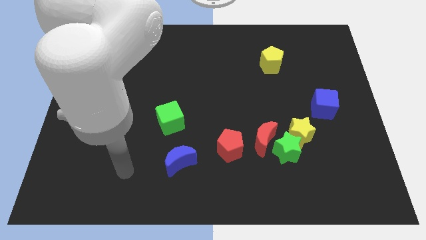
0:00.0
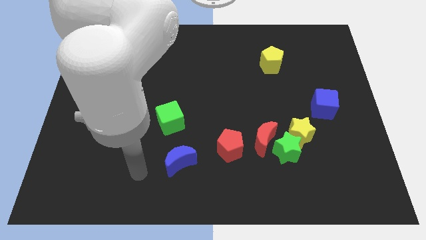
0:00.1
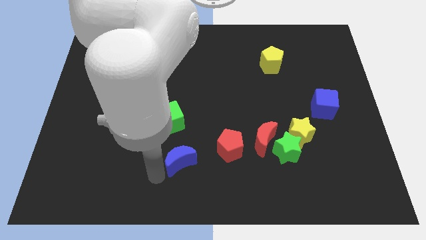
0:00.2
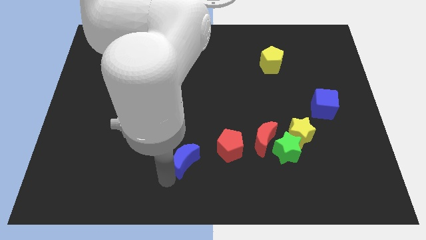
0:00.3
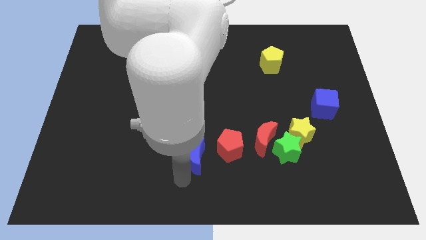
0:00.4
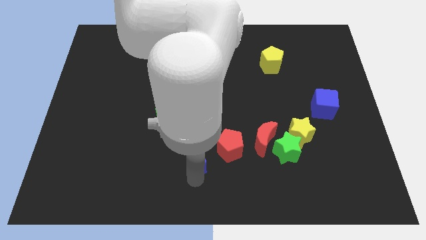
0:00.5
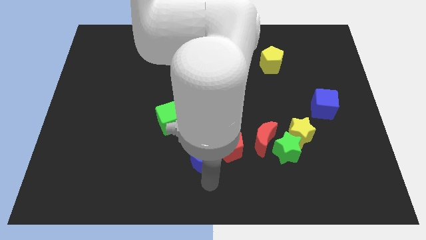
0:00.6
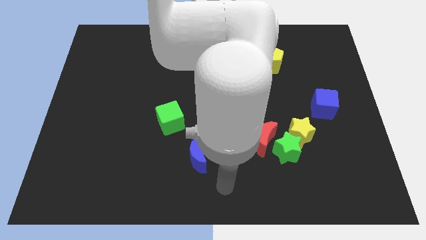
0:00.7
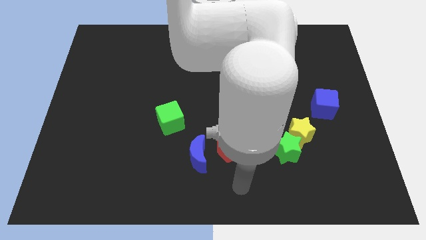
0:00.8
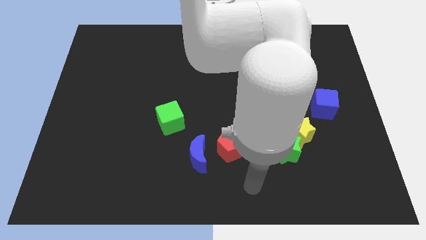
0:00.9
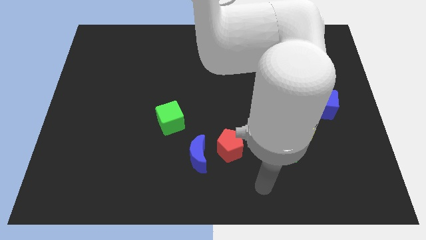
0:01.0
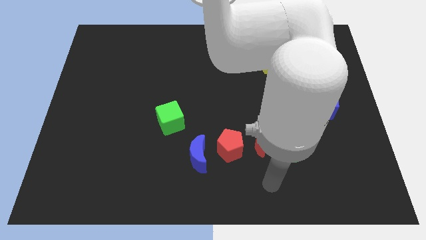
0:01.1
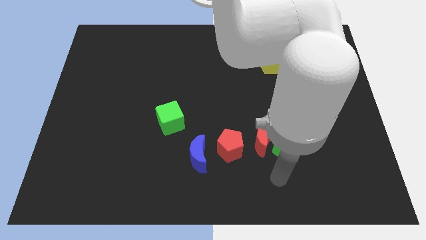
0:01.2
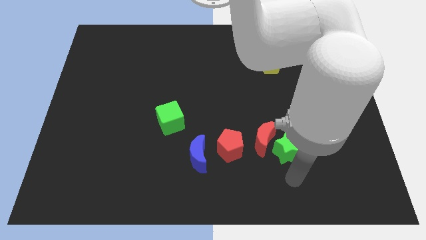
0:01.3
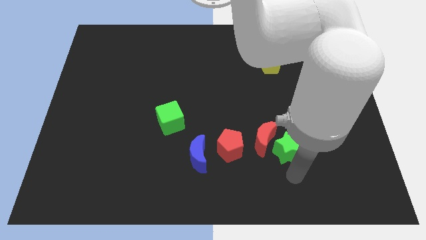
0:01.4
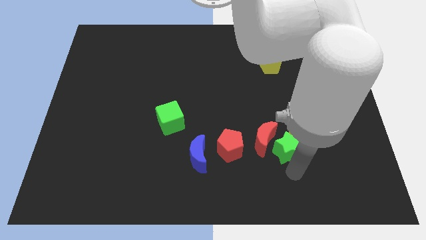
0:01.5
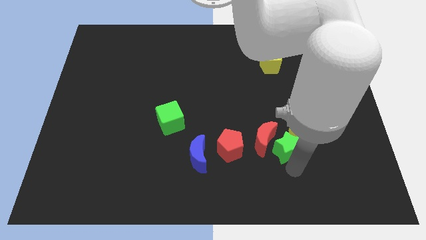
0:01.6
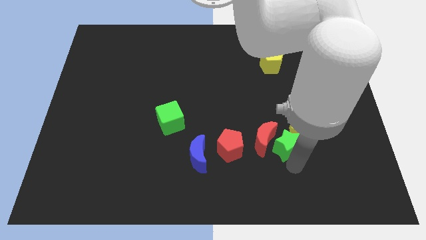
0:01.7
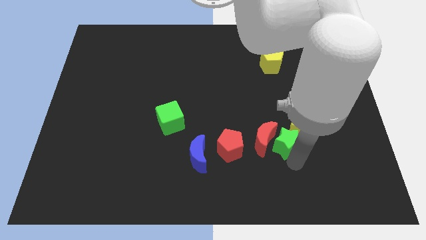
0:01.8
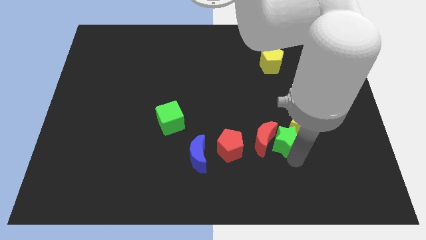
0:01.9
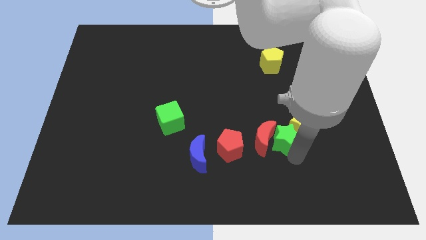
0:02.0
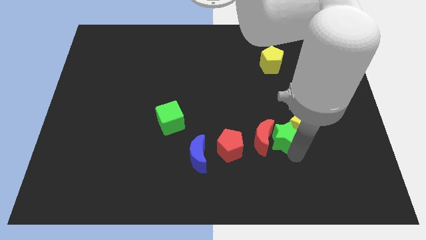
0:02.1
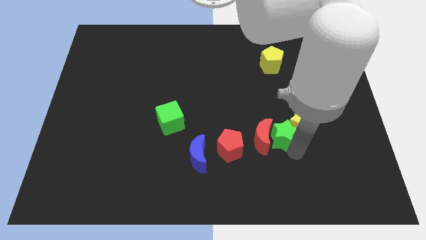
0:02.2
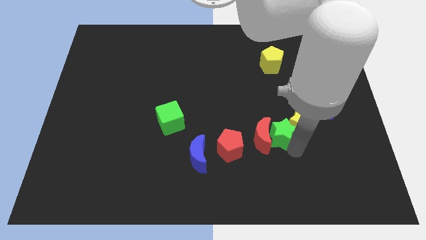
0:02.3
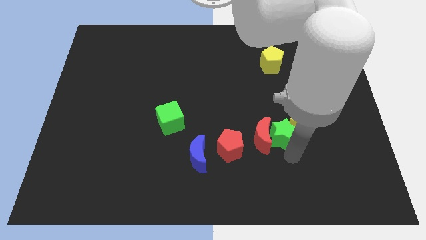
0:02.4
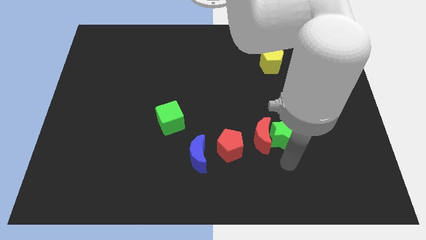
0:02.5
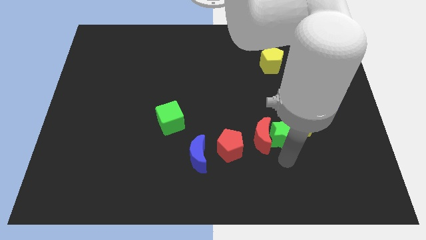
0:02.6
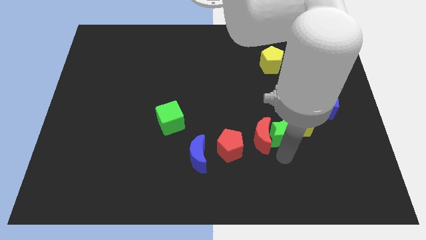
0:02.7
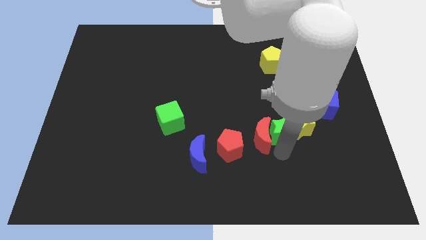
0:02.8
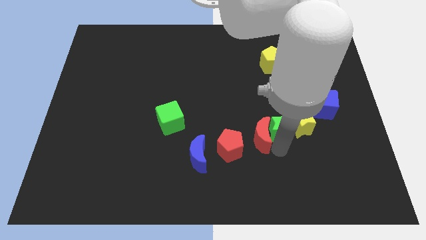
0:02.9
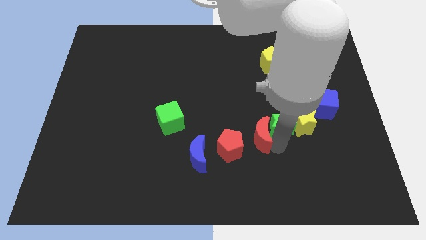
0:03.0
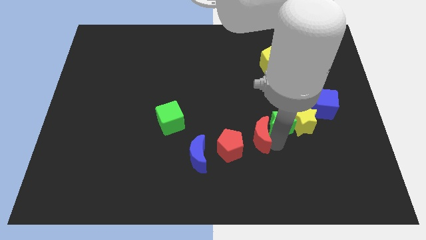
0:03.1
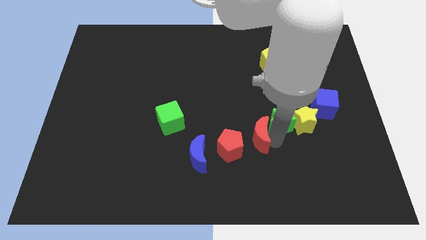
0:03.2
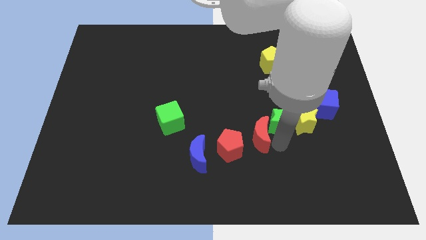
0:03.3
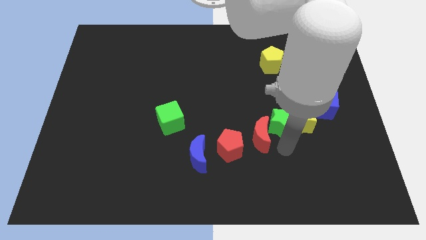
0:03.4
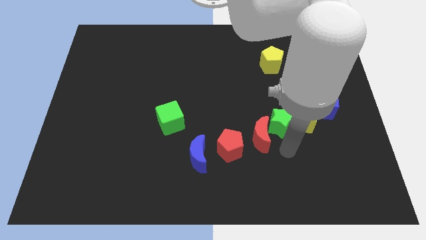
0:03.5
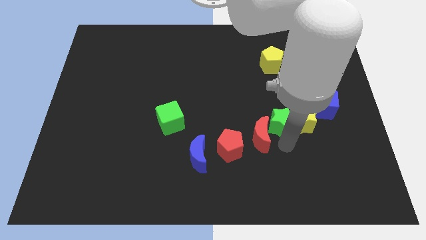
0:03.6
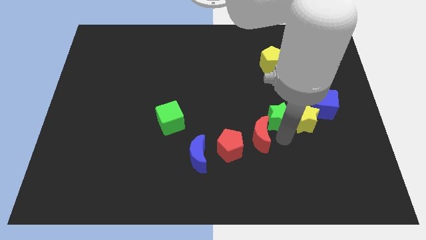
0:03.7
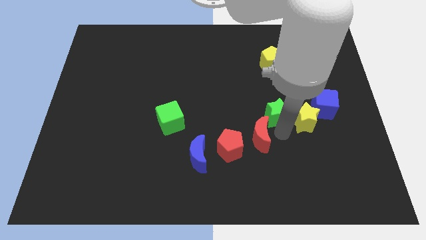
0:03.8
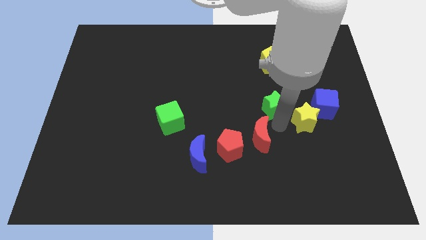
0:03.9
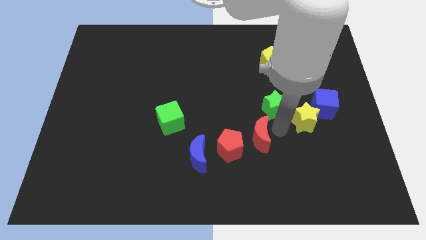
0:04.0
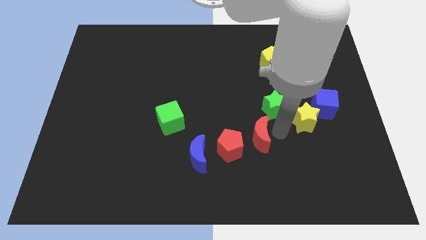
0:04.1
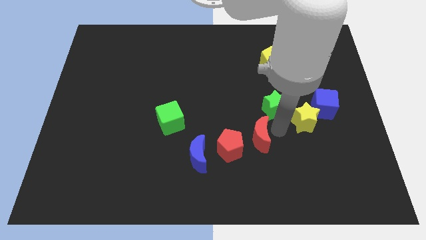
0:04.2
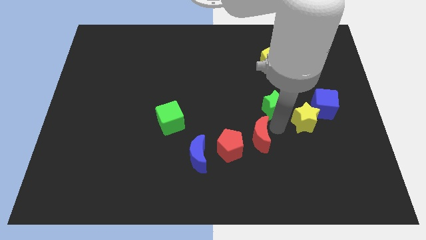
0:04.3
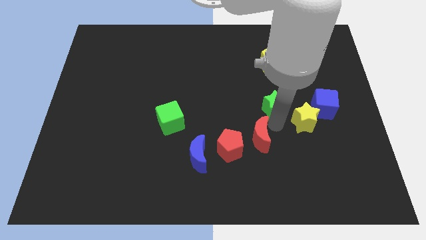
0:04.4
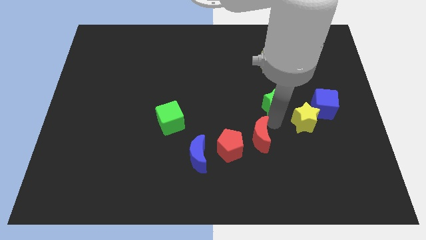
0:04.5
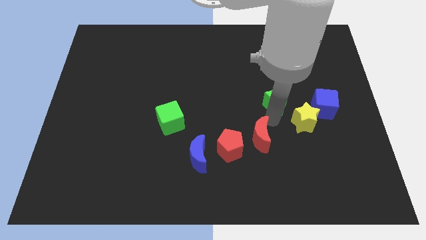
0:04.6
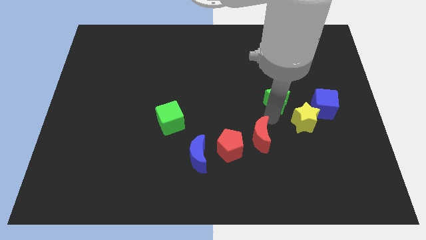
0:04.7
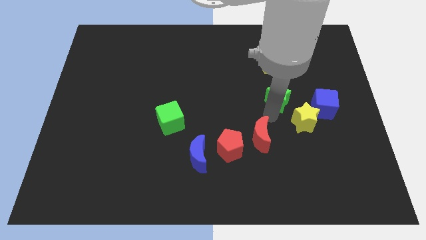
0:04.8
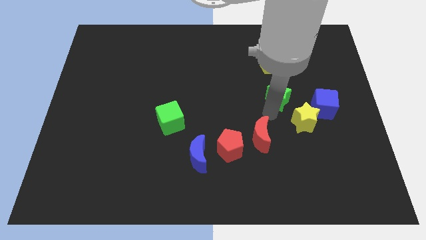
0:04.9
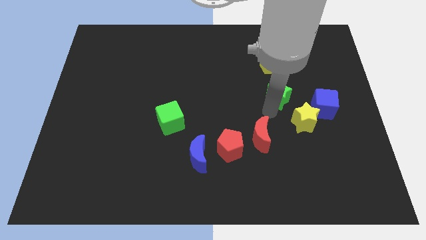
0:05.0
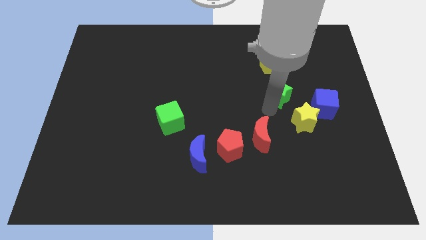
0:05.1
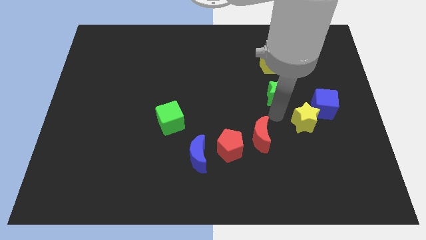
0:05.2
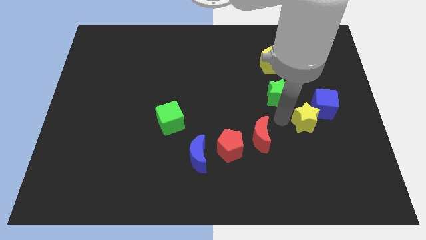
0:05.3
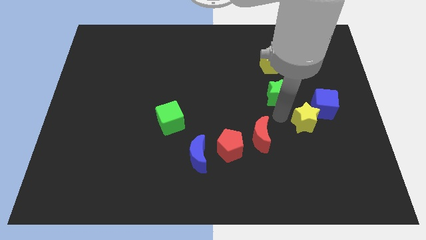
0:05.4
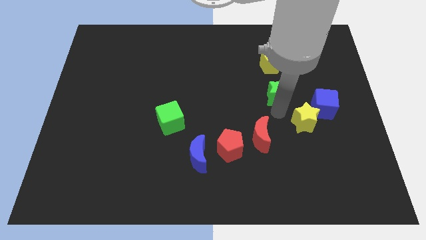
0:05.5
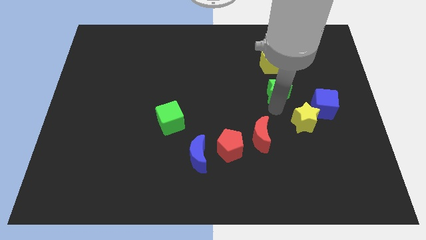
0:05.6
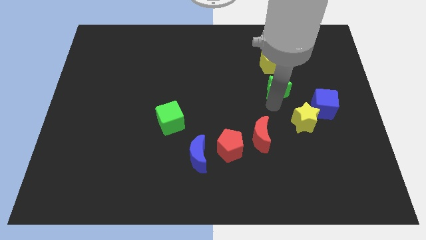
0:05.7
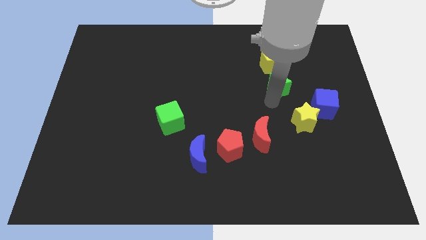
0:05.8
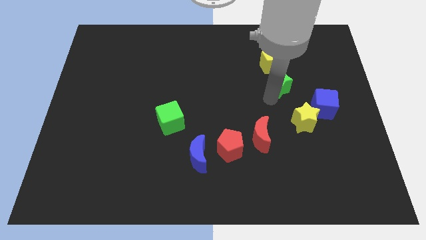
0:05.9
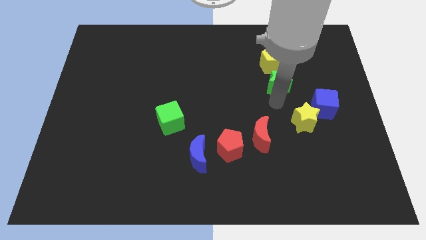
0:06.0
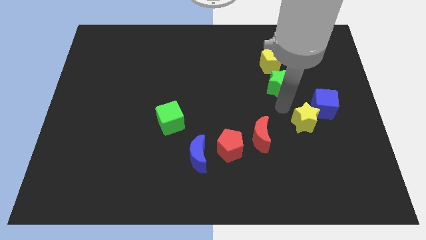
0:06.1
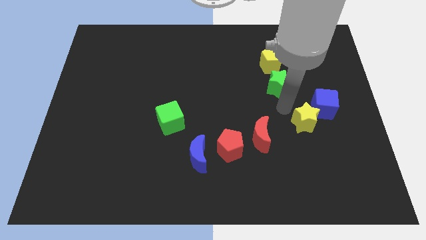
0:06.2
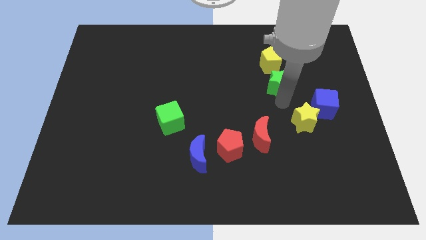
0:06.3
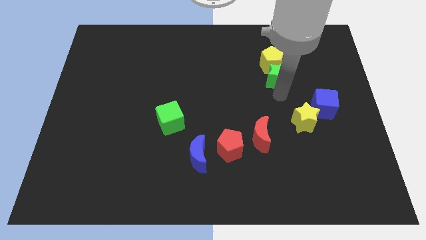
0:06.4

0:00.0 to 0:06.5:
slide the green star next to the yellow pentagon
